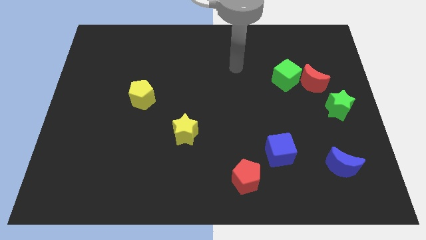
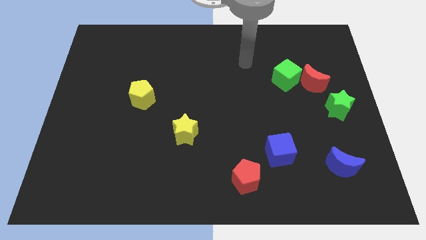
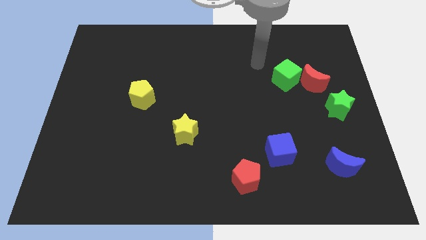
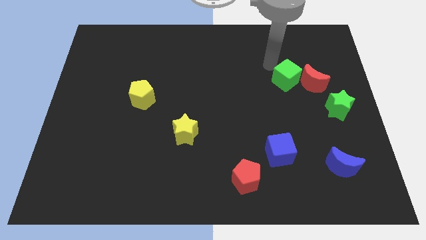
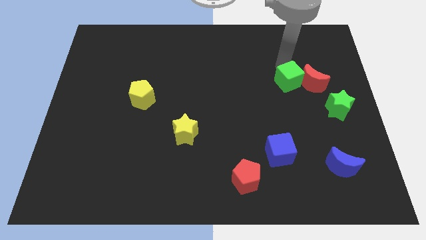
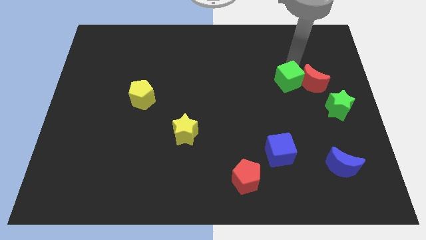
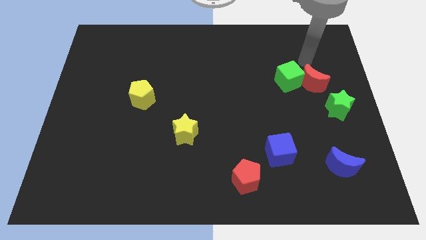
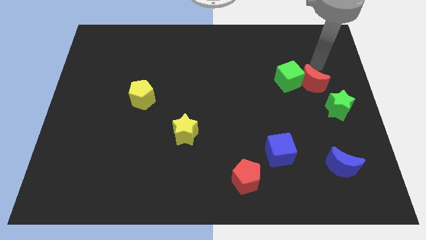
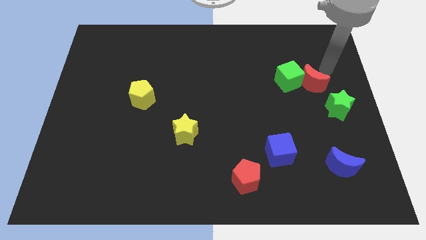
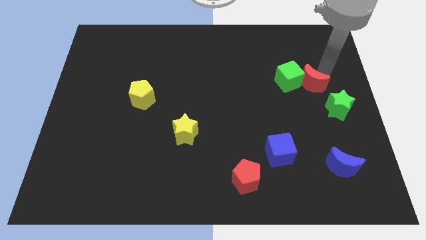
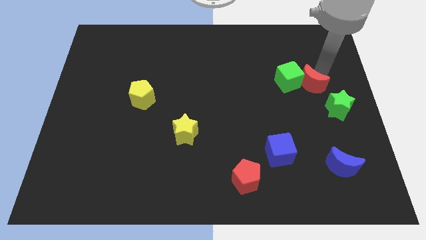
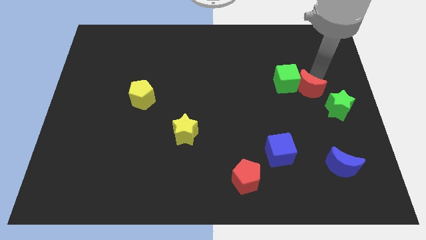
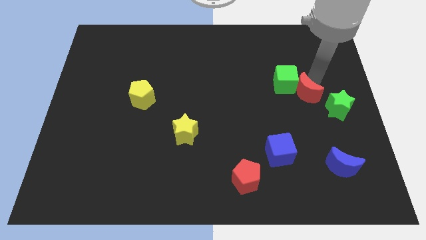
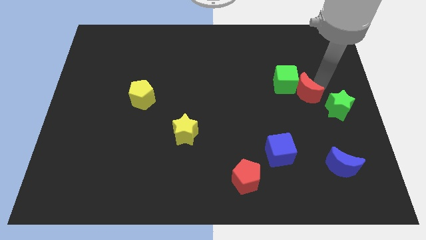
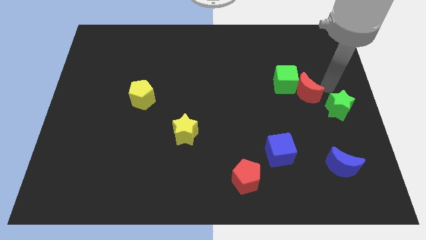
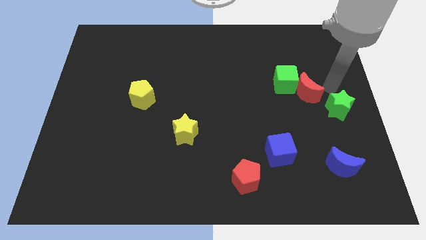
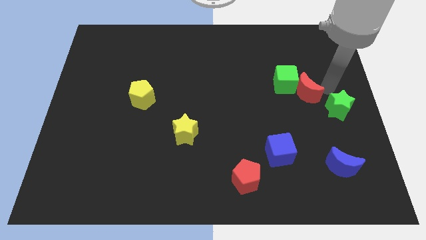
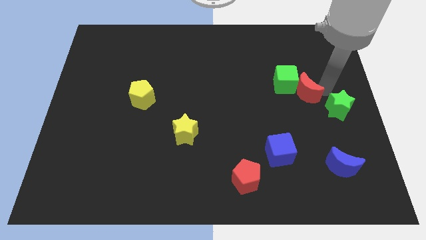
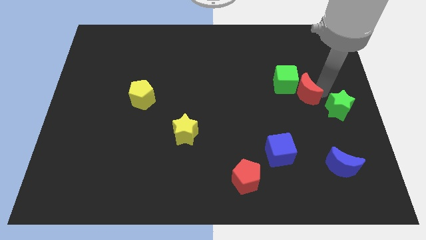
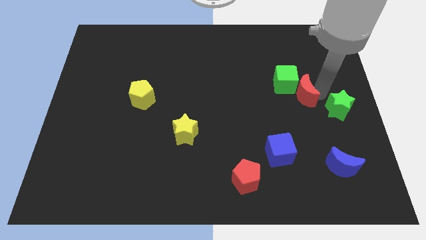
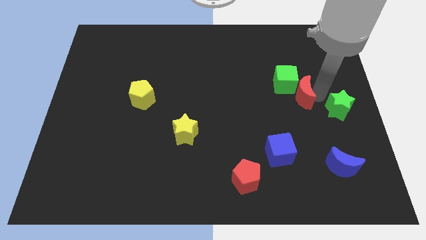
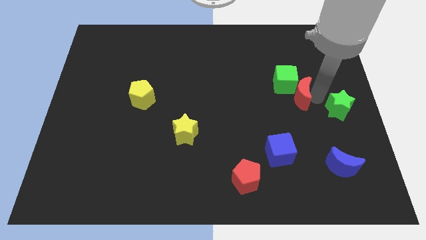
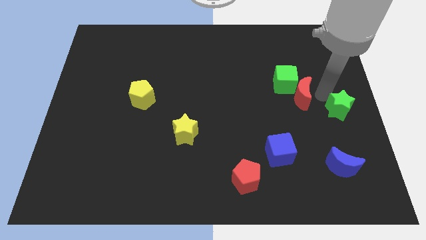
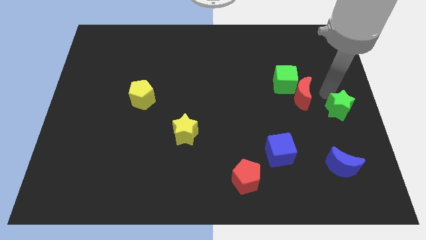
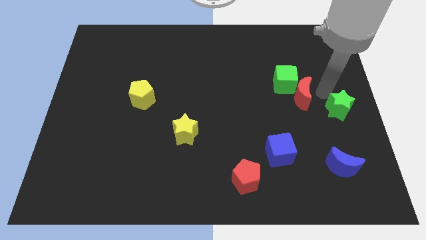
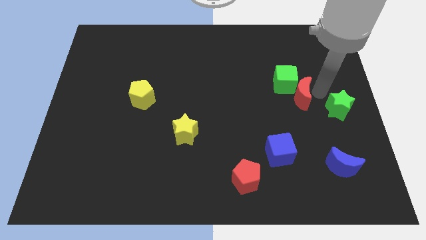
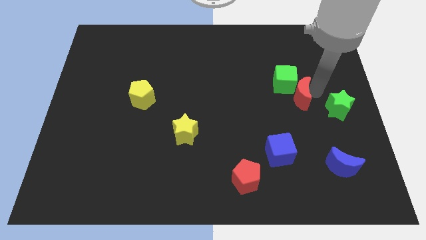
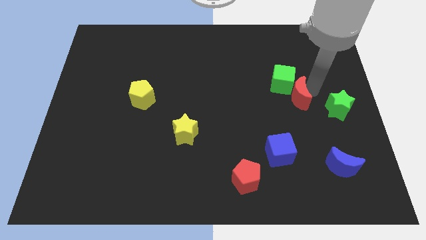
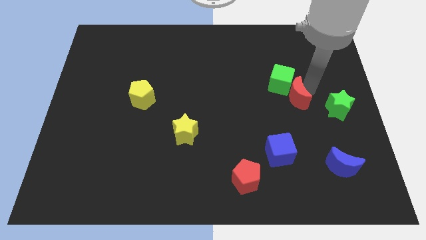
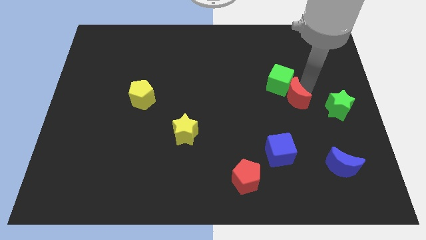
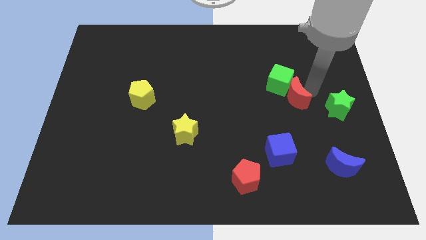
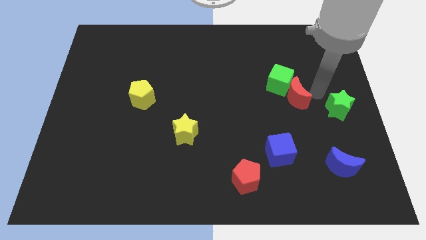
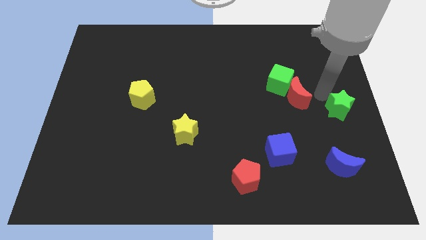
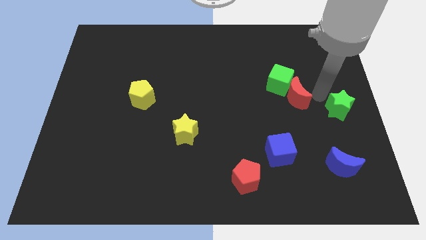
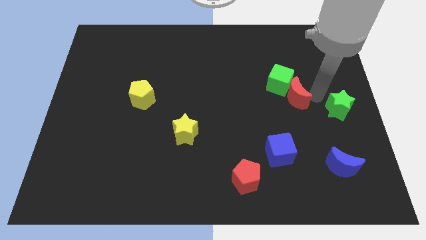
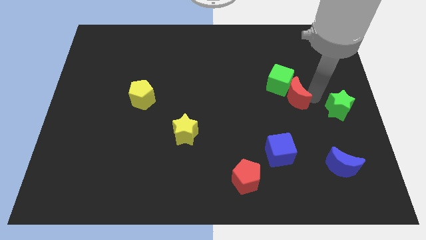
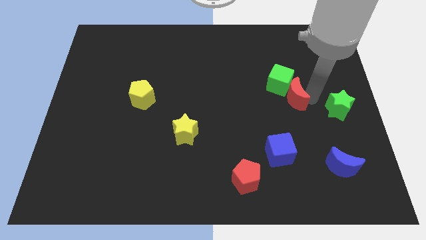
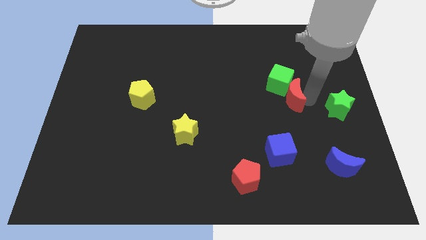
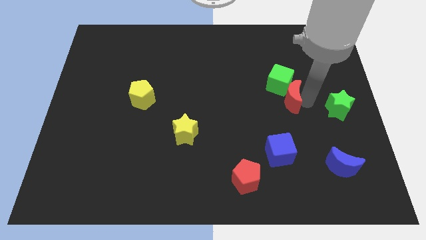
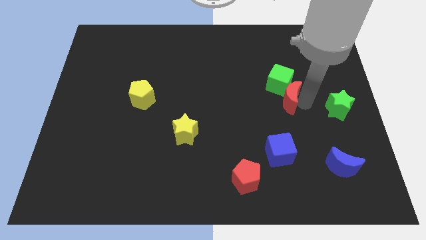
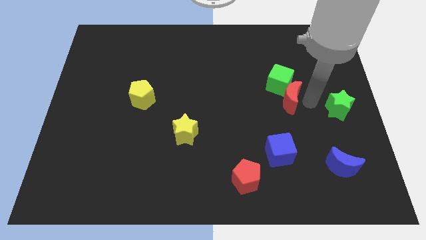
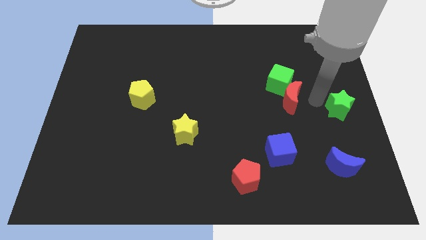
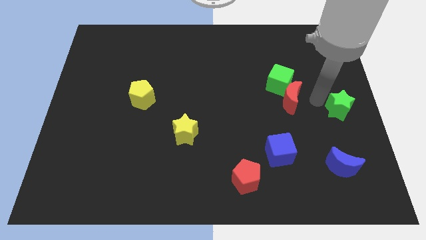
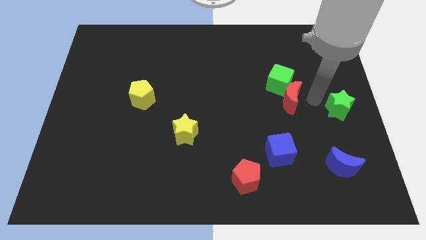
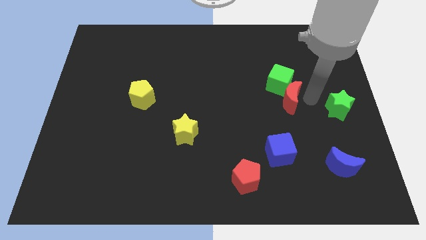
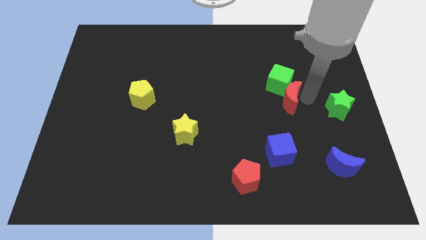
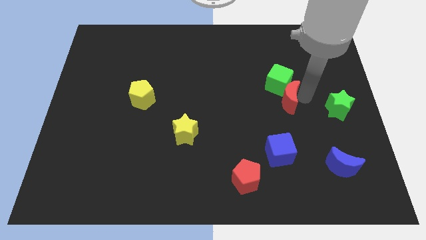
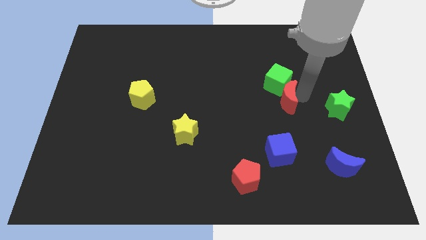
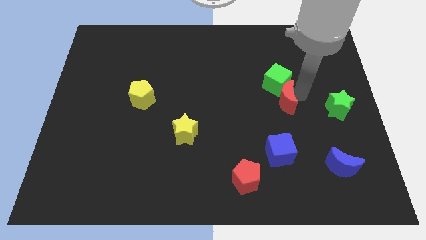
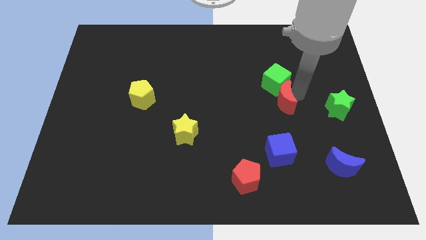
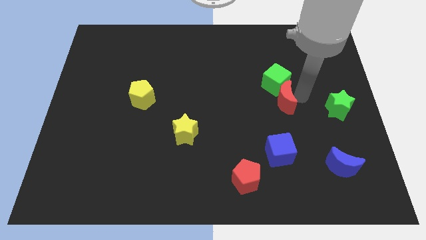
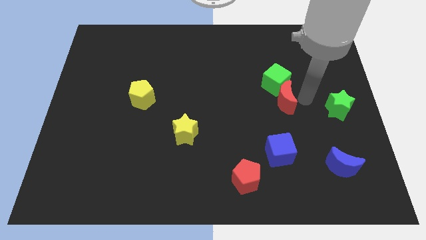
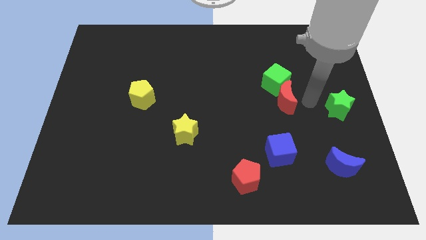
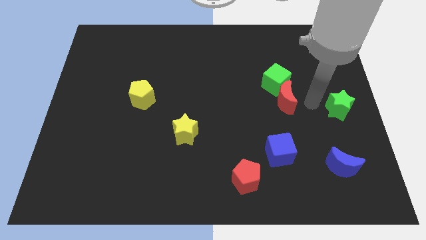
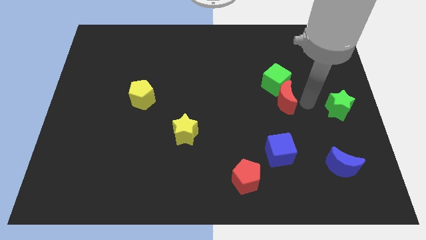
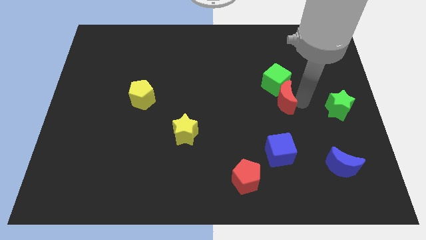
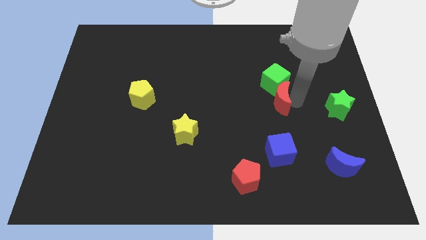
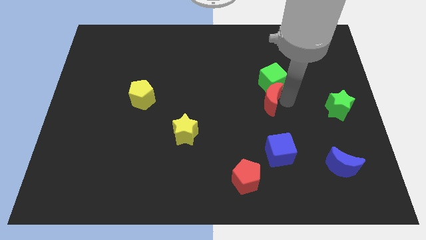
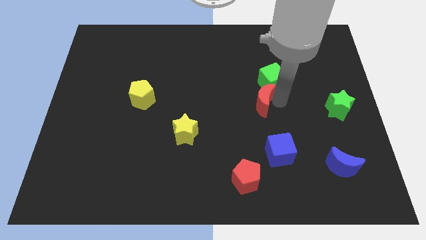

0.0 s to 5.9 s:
push the red moon to the center of the board
